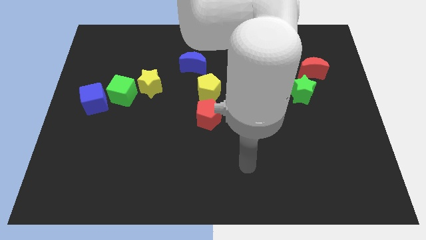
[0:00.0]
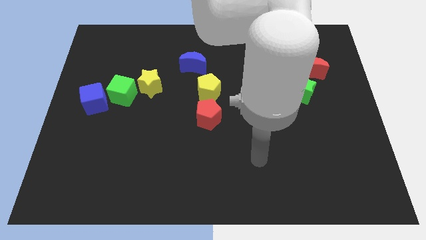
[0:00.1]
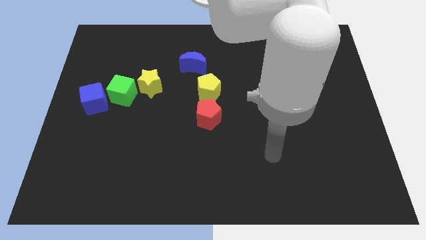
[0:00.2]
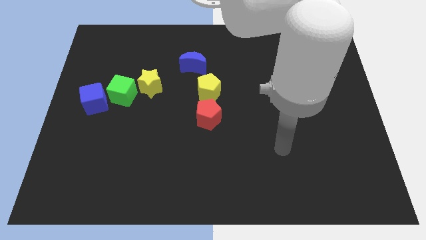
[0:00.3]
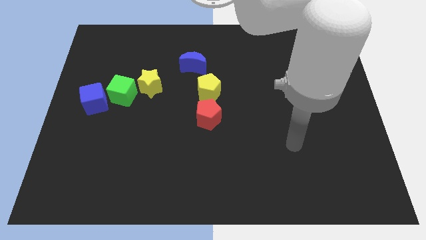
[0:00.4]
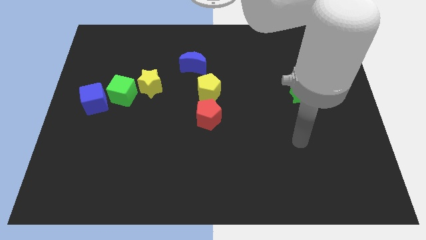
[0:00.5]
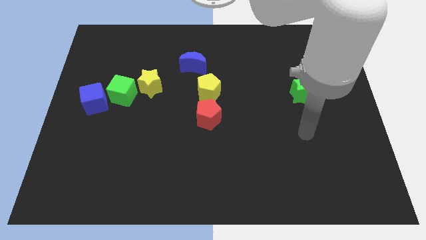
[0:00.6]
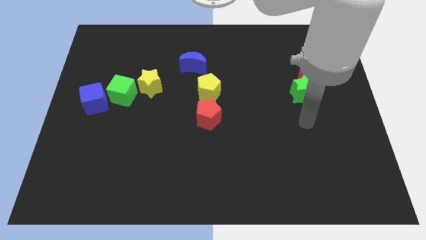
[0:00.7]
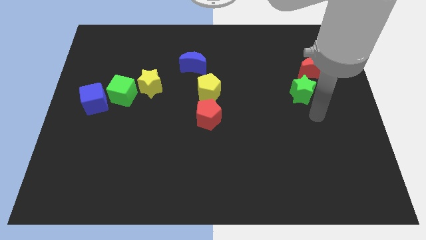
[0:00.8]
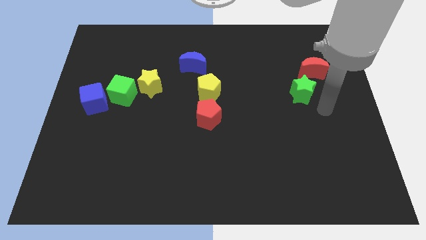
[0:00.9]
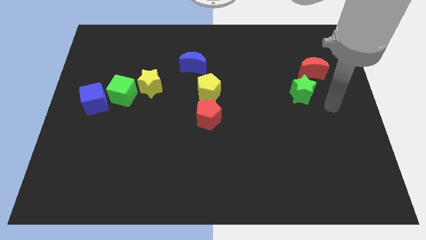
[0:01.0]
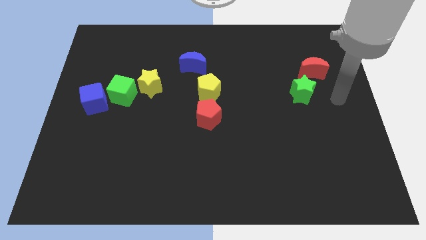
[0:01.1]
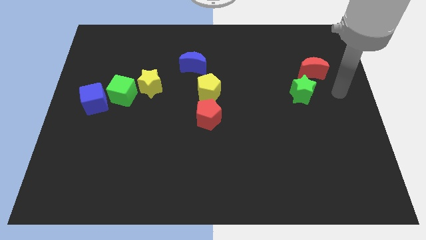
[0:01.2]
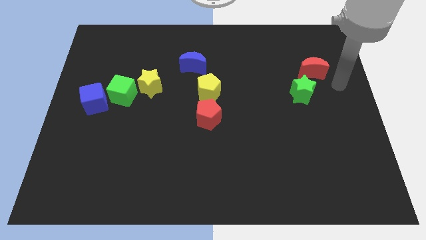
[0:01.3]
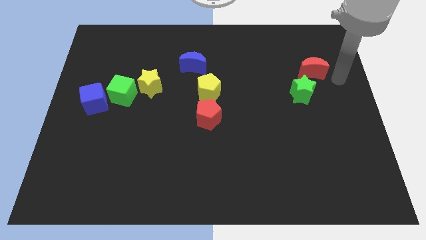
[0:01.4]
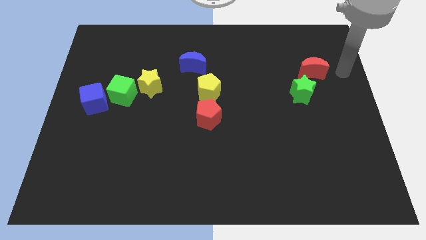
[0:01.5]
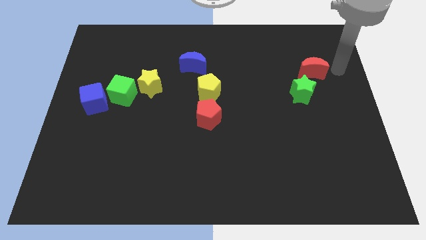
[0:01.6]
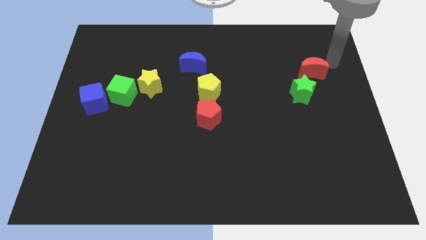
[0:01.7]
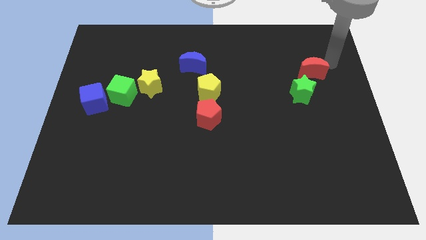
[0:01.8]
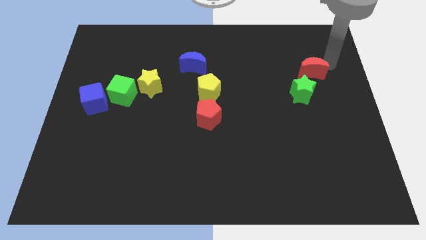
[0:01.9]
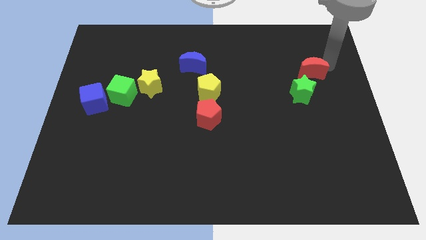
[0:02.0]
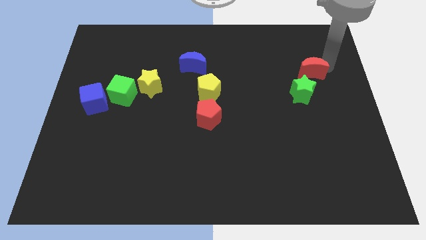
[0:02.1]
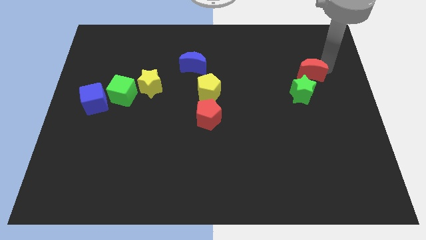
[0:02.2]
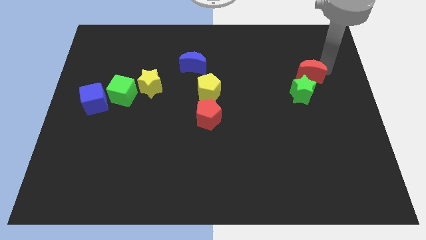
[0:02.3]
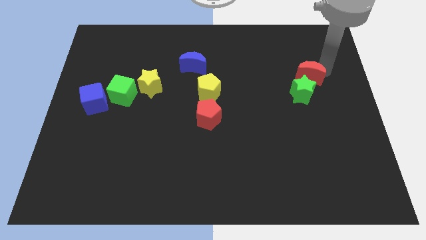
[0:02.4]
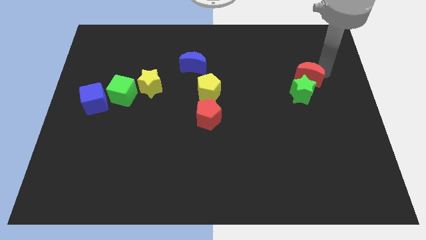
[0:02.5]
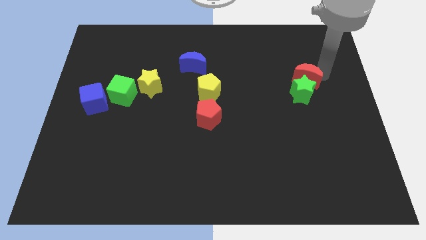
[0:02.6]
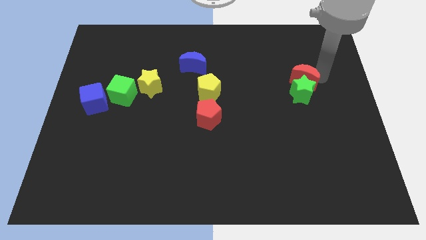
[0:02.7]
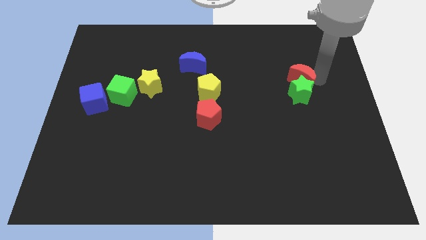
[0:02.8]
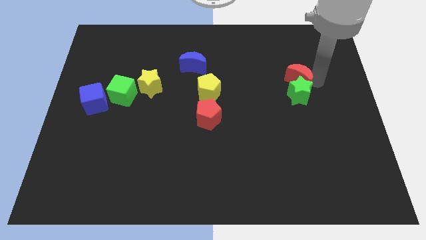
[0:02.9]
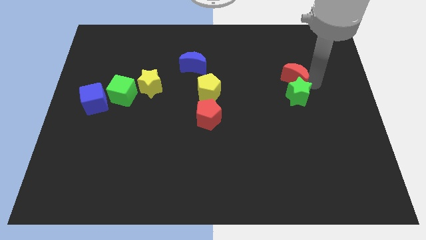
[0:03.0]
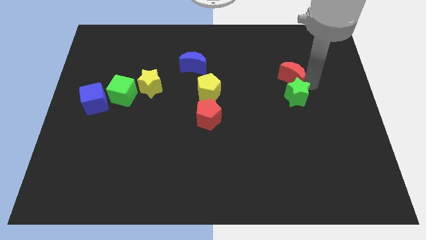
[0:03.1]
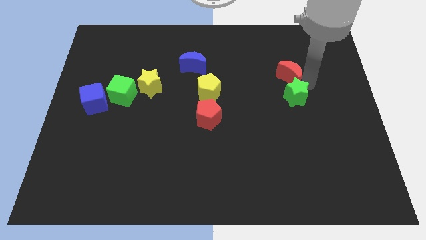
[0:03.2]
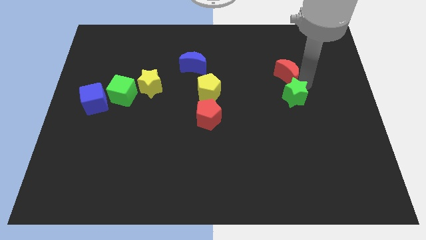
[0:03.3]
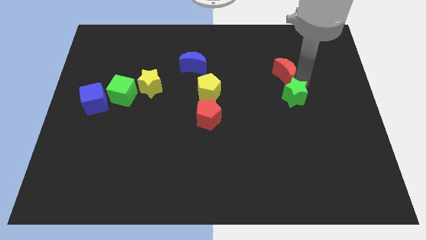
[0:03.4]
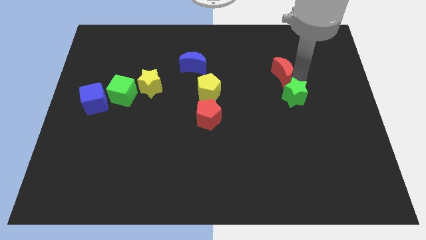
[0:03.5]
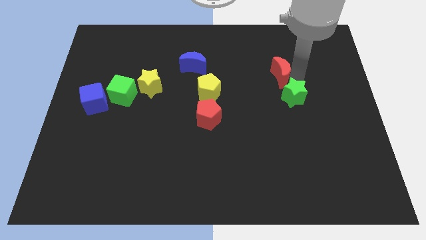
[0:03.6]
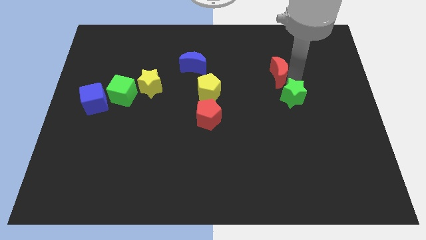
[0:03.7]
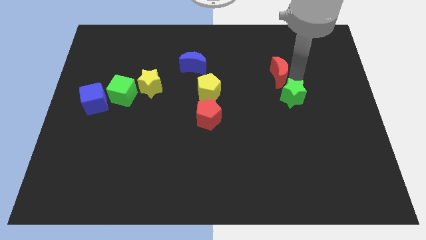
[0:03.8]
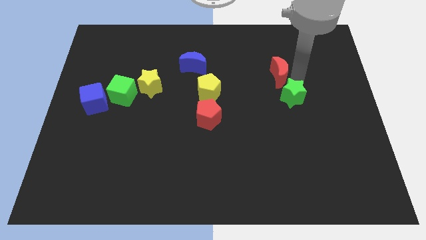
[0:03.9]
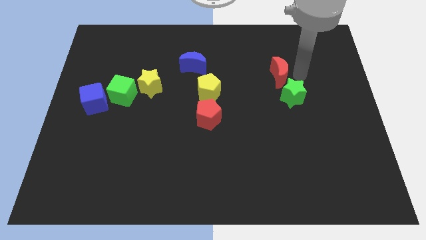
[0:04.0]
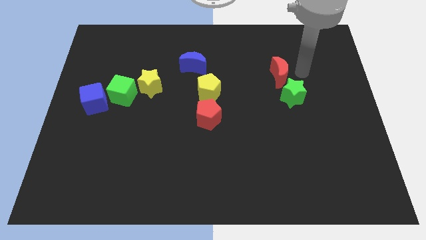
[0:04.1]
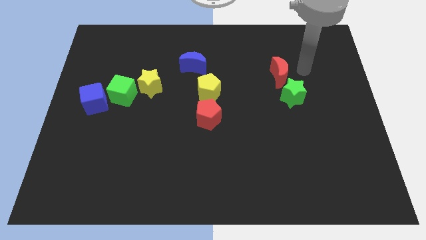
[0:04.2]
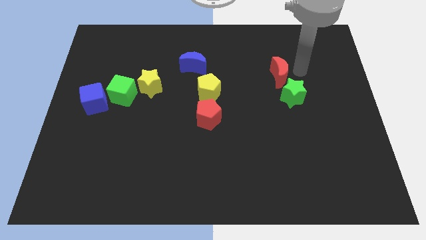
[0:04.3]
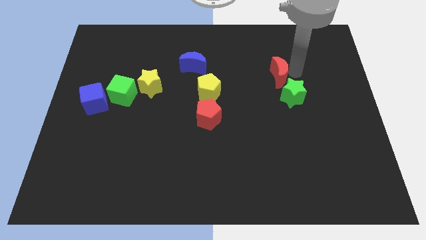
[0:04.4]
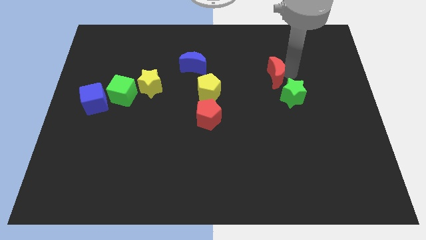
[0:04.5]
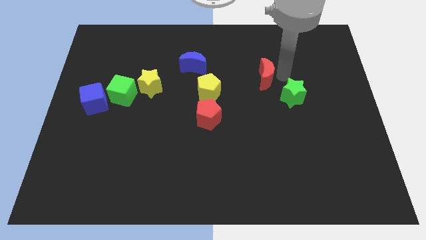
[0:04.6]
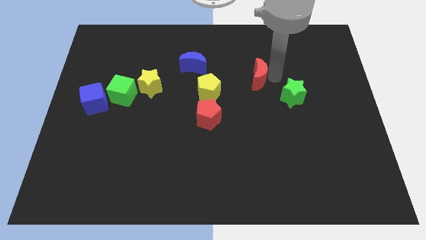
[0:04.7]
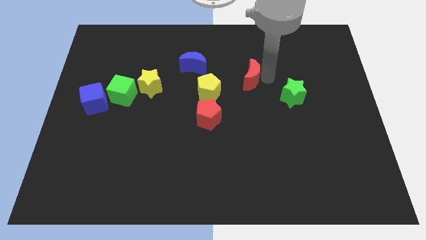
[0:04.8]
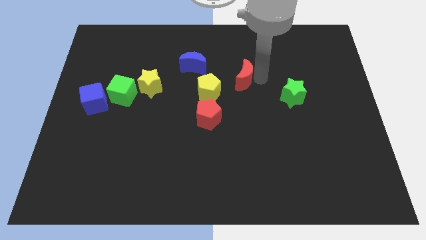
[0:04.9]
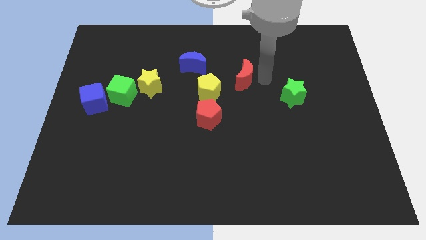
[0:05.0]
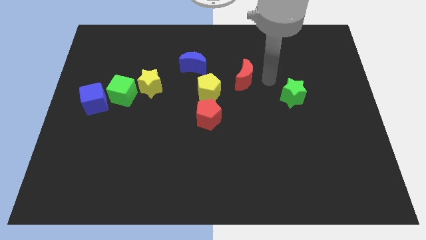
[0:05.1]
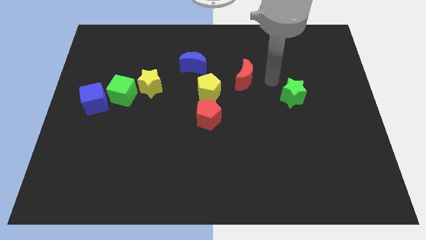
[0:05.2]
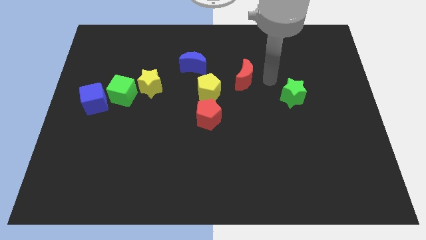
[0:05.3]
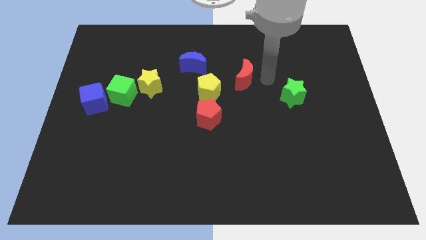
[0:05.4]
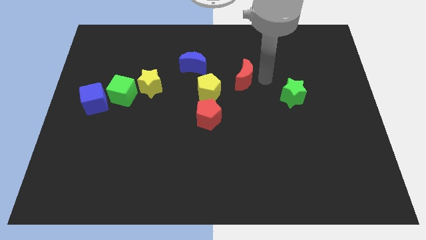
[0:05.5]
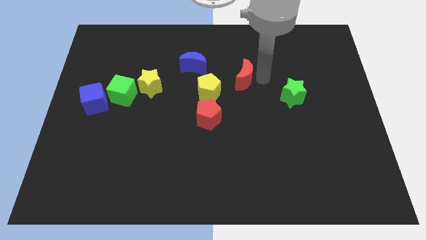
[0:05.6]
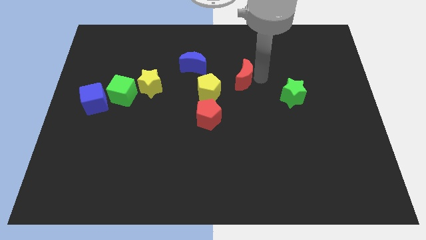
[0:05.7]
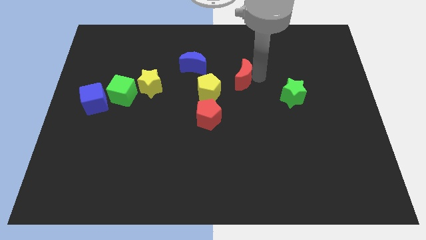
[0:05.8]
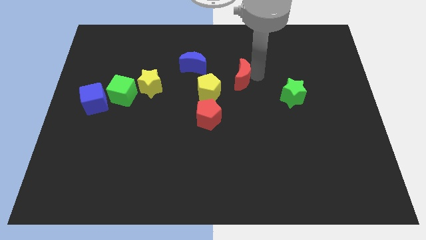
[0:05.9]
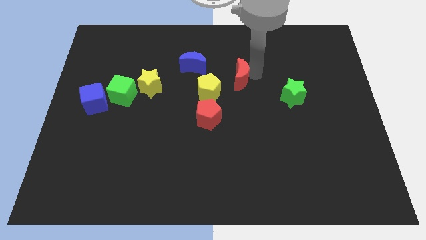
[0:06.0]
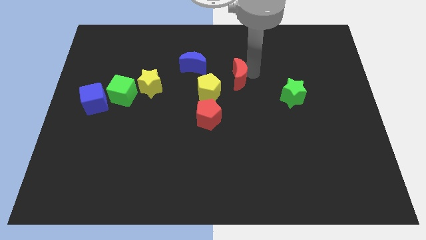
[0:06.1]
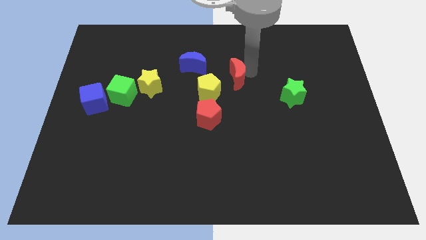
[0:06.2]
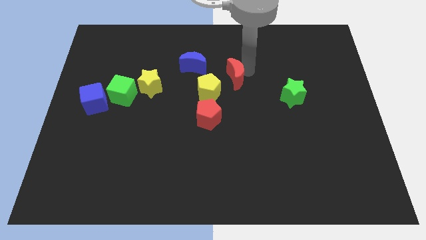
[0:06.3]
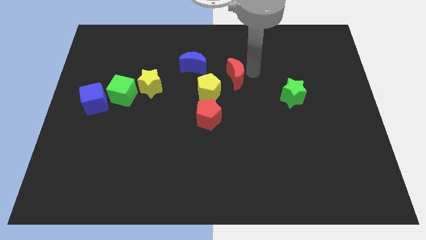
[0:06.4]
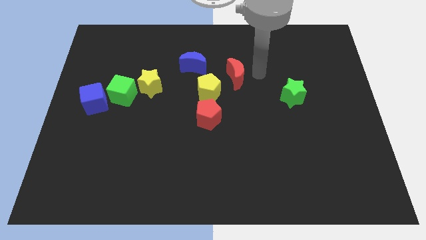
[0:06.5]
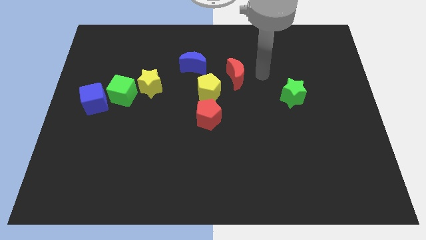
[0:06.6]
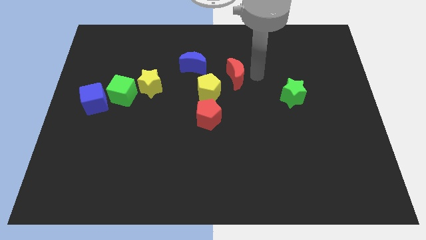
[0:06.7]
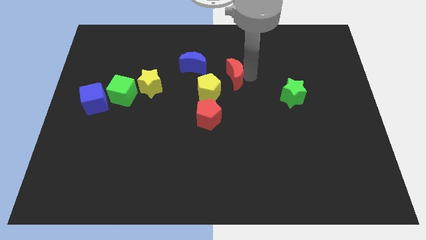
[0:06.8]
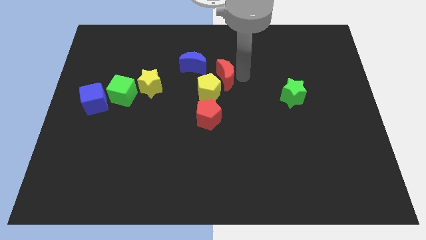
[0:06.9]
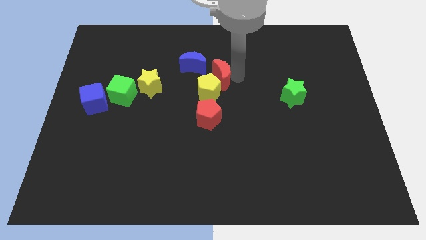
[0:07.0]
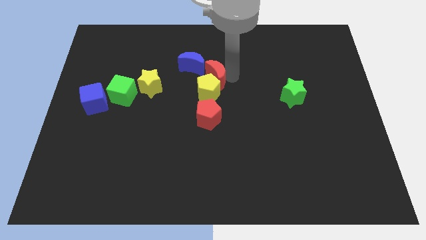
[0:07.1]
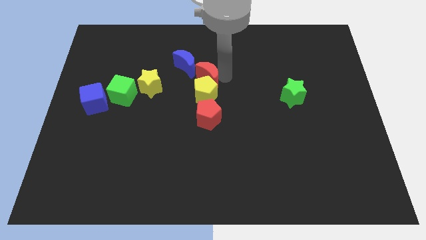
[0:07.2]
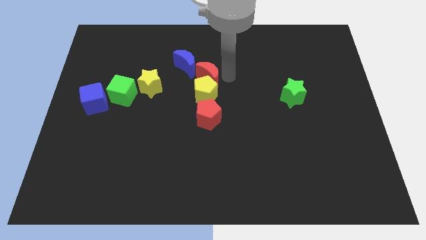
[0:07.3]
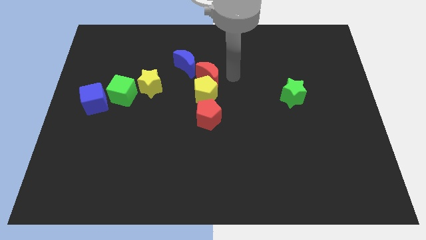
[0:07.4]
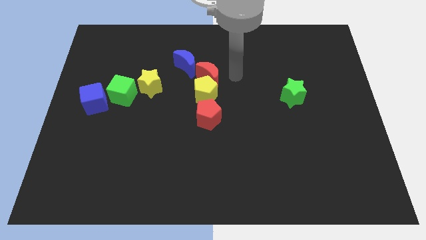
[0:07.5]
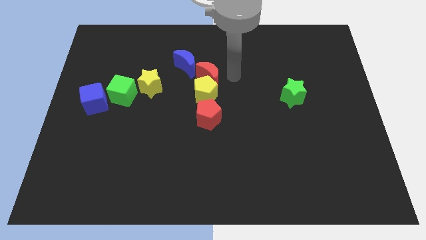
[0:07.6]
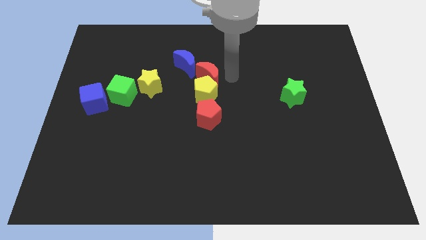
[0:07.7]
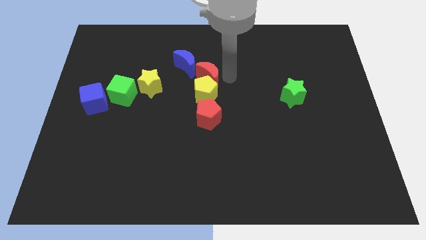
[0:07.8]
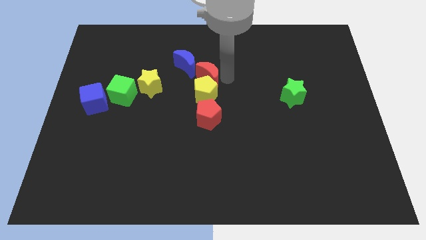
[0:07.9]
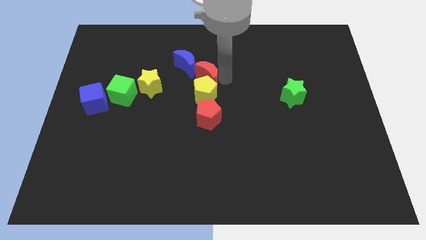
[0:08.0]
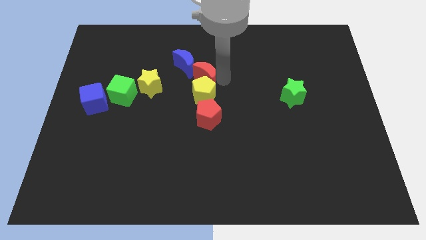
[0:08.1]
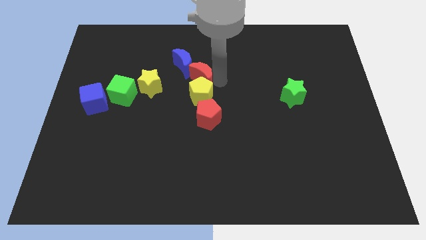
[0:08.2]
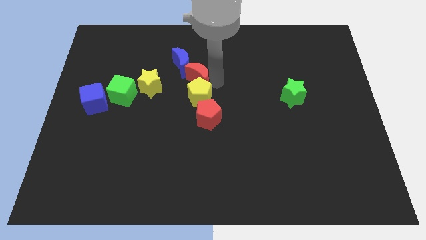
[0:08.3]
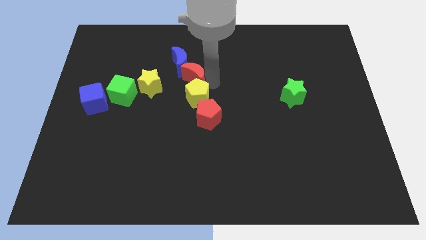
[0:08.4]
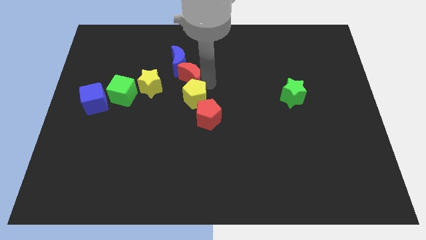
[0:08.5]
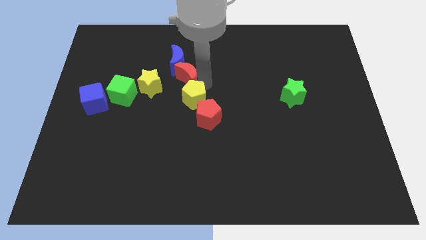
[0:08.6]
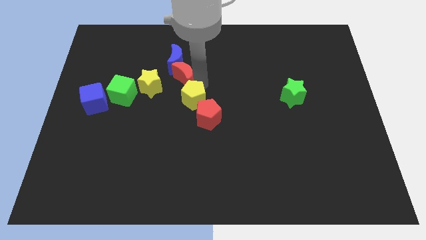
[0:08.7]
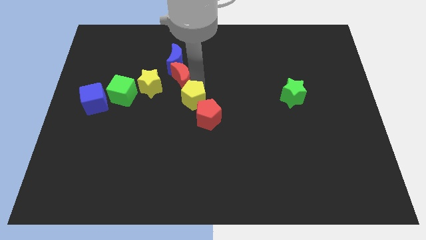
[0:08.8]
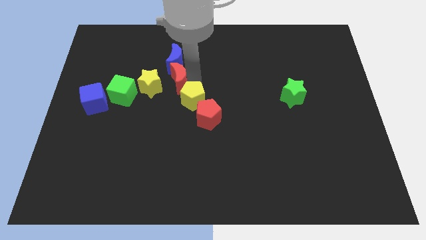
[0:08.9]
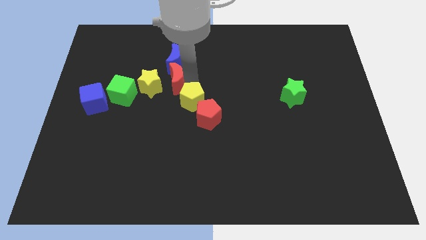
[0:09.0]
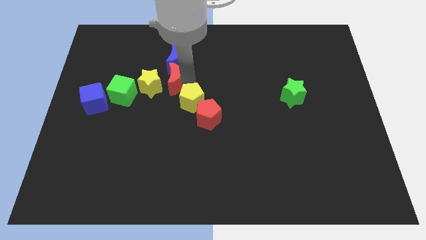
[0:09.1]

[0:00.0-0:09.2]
push the red moon diagonally down and to the left of the blue moon
